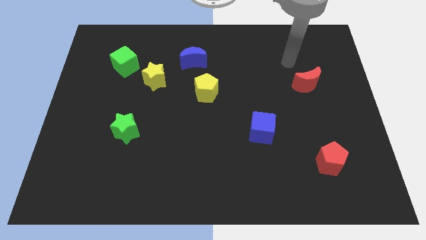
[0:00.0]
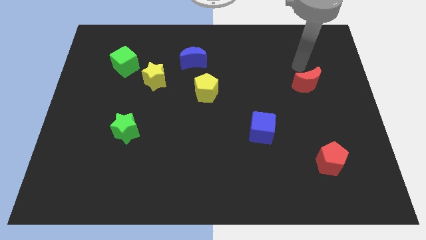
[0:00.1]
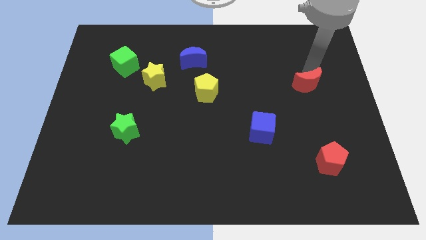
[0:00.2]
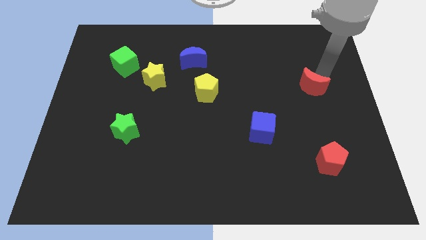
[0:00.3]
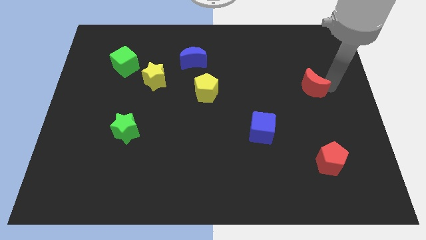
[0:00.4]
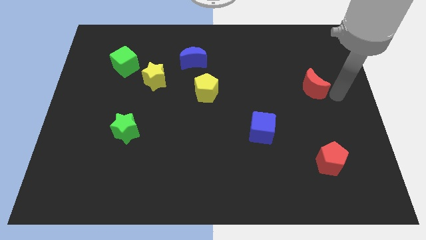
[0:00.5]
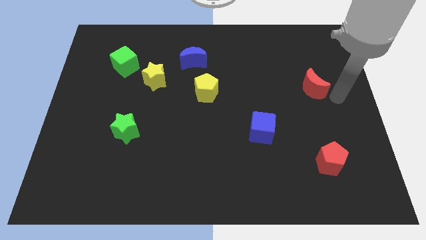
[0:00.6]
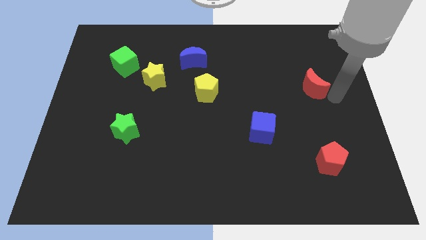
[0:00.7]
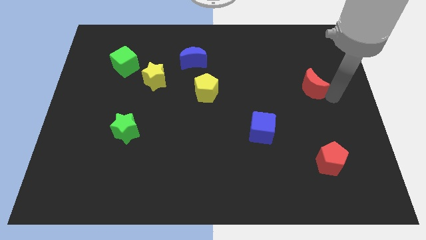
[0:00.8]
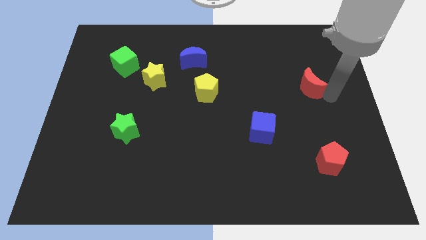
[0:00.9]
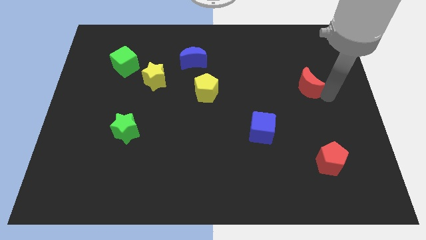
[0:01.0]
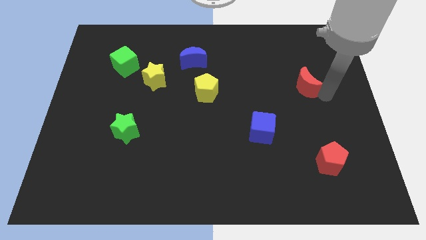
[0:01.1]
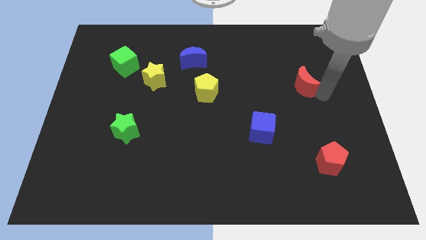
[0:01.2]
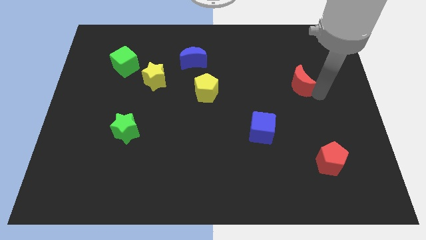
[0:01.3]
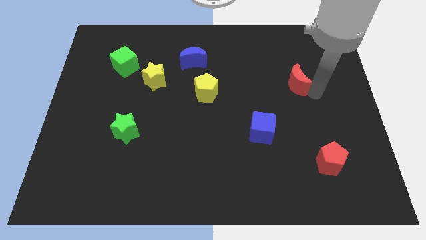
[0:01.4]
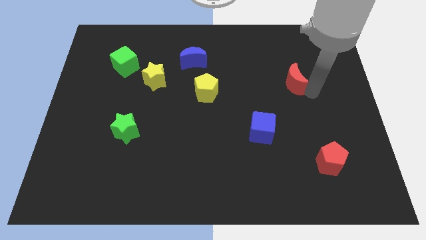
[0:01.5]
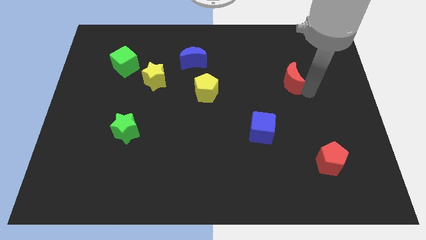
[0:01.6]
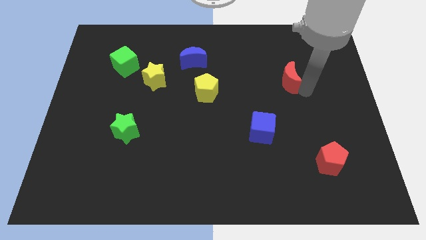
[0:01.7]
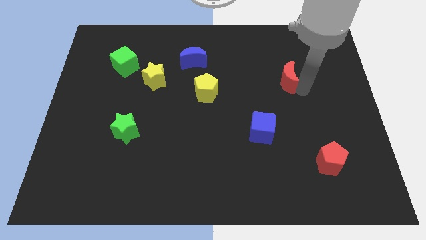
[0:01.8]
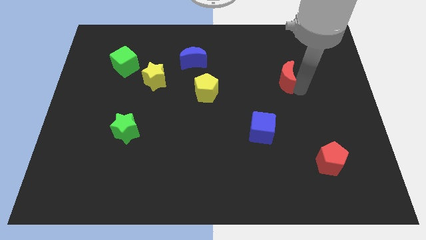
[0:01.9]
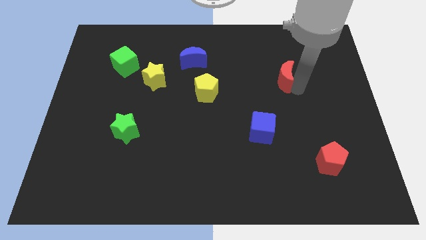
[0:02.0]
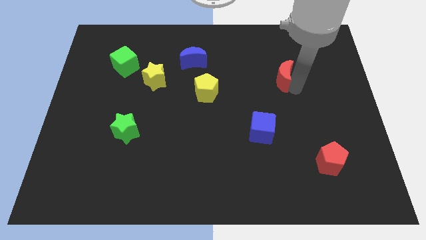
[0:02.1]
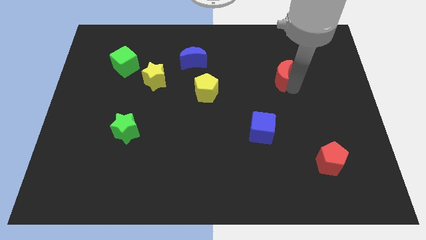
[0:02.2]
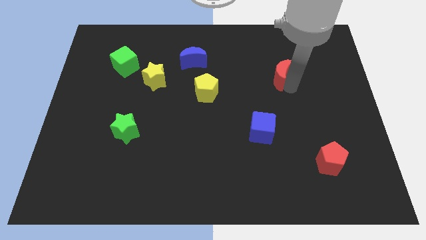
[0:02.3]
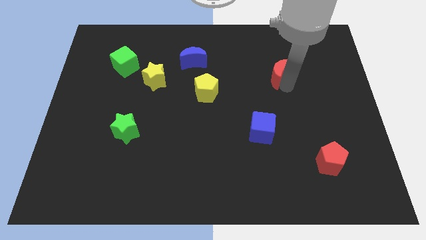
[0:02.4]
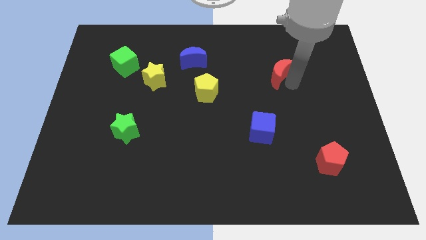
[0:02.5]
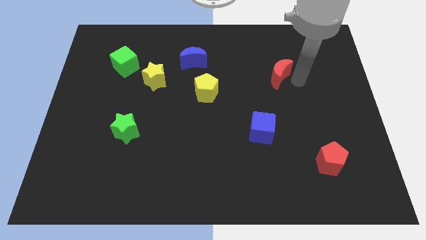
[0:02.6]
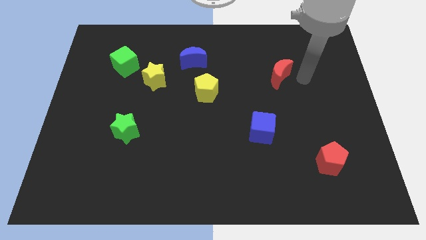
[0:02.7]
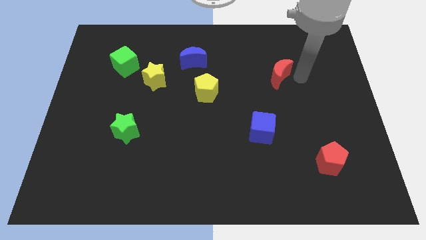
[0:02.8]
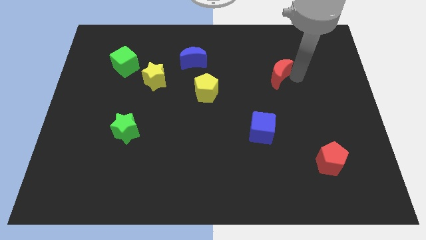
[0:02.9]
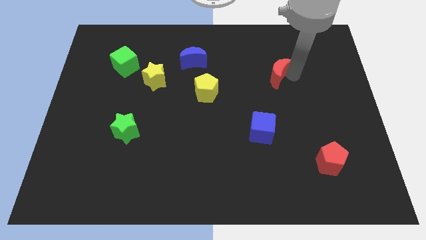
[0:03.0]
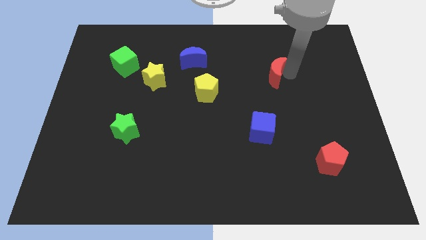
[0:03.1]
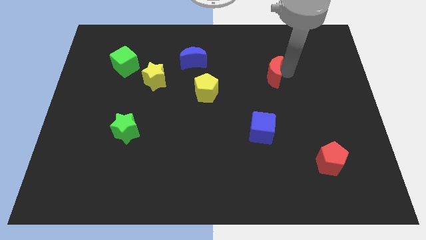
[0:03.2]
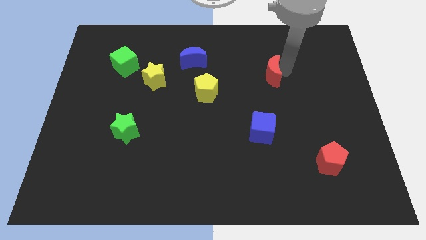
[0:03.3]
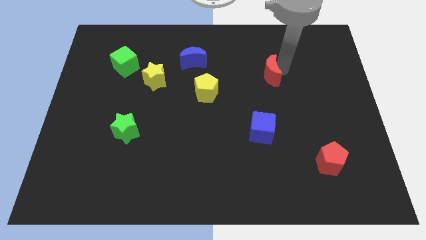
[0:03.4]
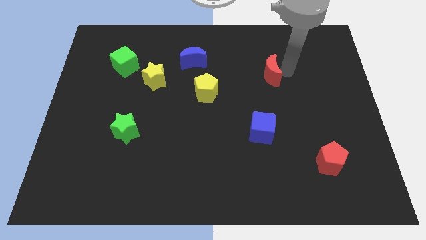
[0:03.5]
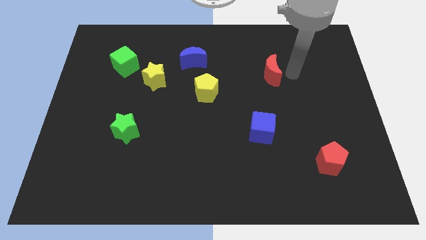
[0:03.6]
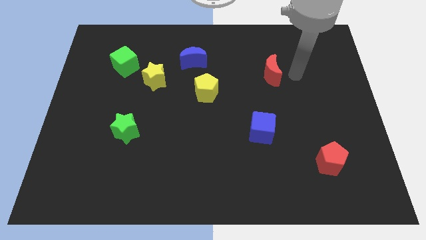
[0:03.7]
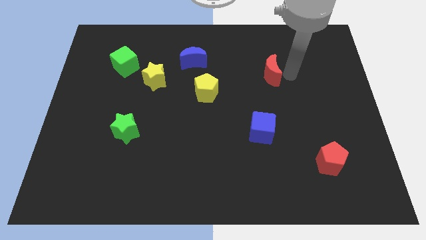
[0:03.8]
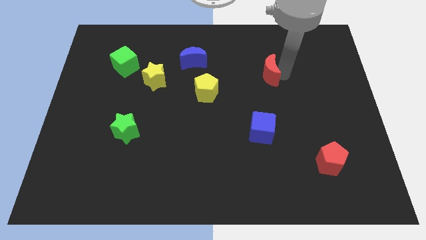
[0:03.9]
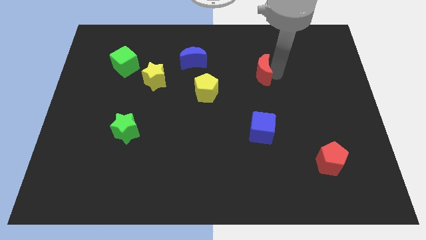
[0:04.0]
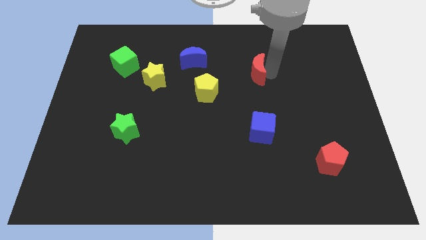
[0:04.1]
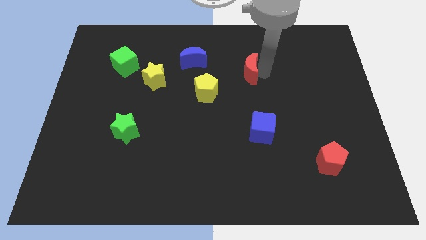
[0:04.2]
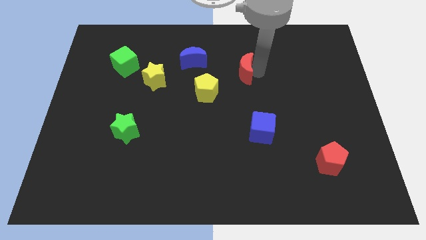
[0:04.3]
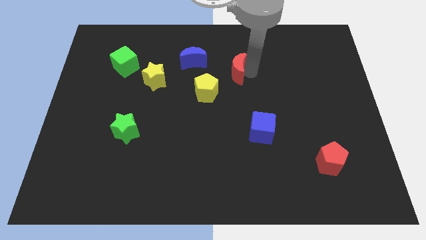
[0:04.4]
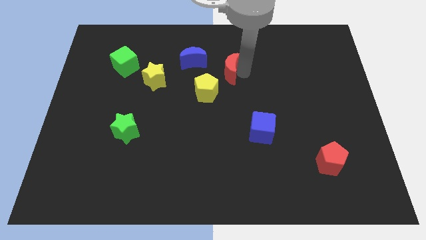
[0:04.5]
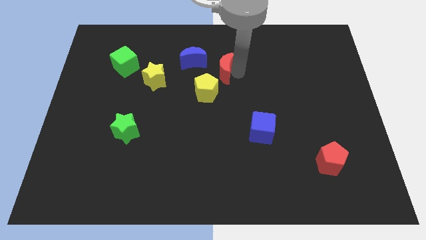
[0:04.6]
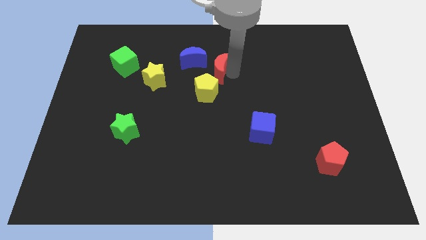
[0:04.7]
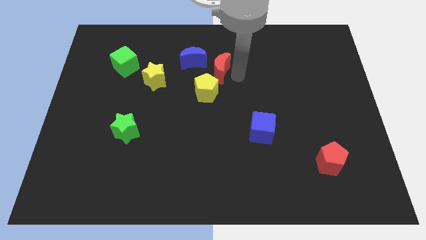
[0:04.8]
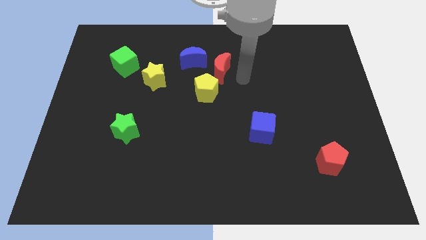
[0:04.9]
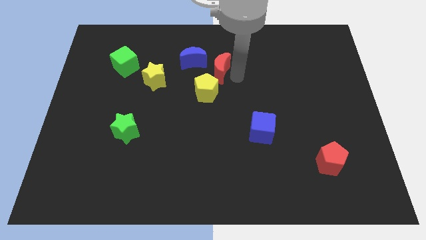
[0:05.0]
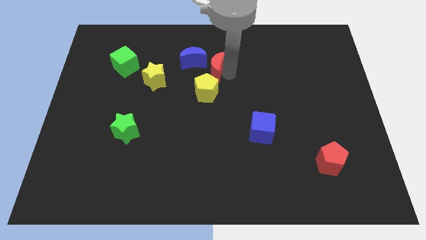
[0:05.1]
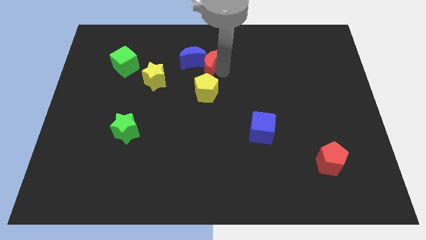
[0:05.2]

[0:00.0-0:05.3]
push the red moon close to the blue moon
